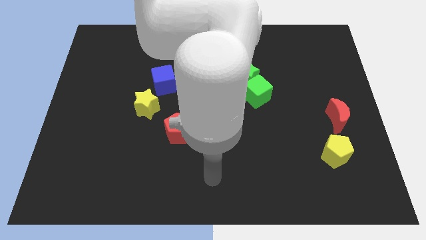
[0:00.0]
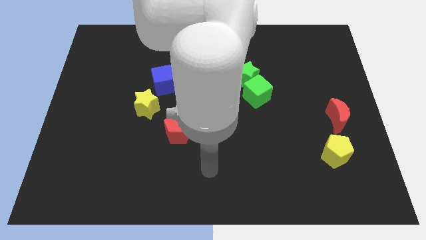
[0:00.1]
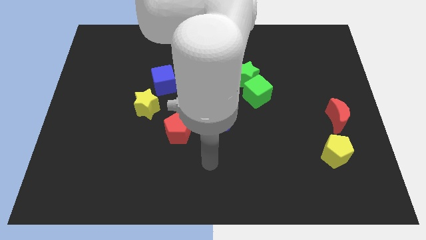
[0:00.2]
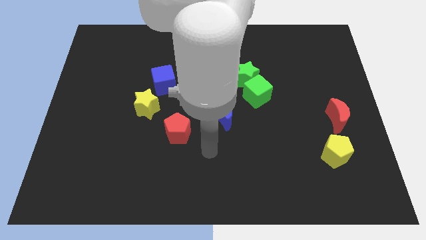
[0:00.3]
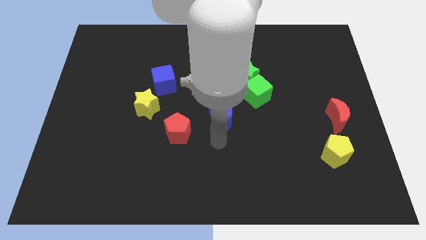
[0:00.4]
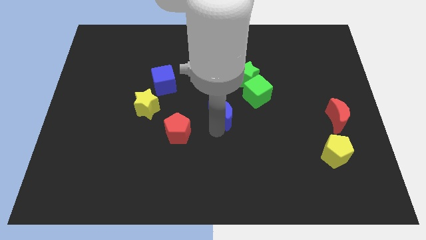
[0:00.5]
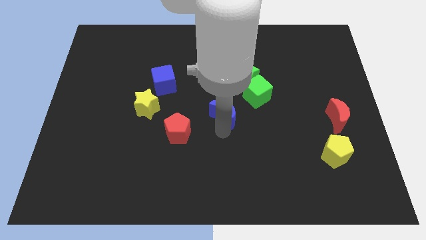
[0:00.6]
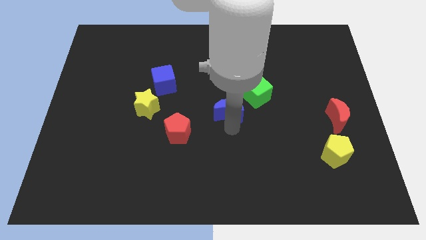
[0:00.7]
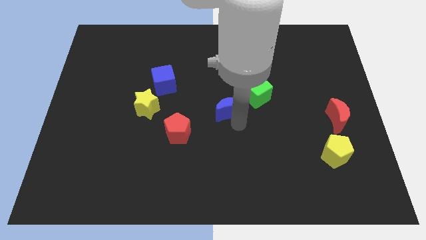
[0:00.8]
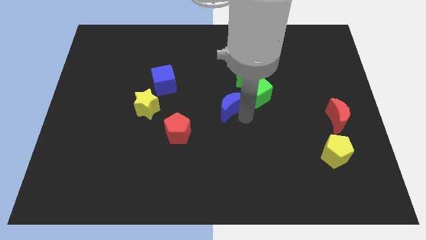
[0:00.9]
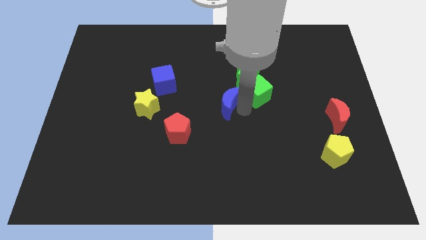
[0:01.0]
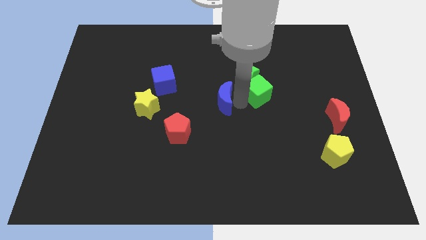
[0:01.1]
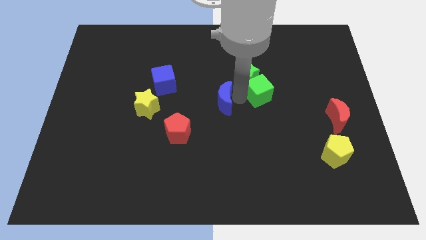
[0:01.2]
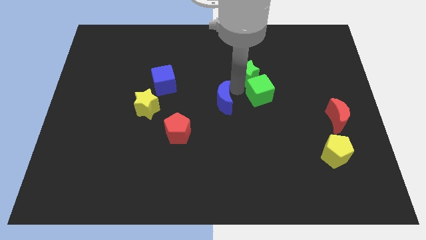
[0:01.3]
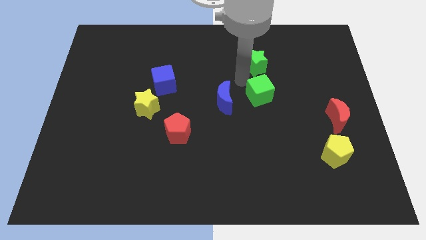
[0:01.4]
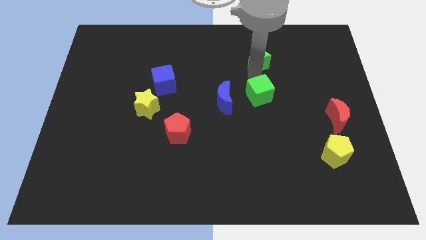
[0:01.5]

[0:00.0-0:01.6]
pull the green cube apart from the green star

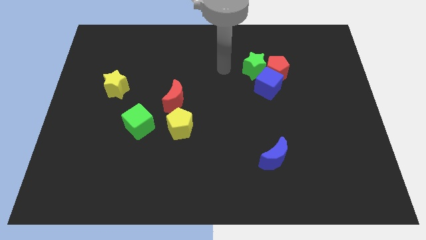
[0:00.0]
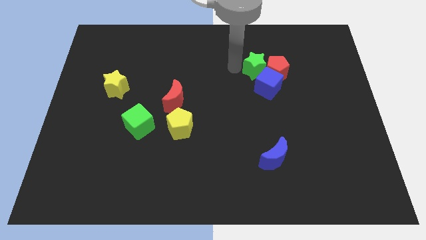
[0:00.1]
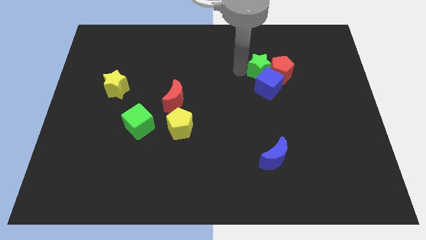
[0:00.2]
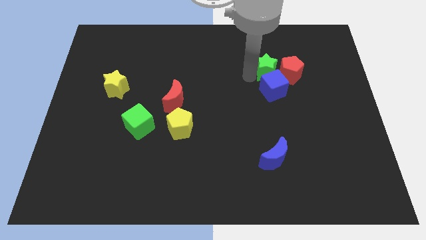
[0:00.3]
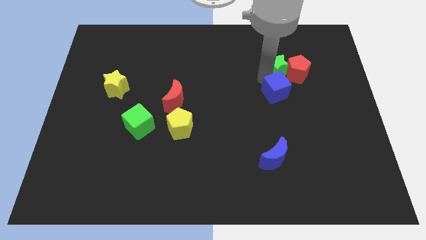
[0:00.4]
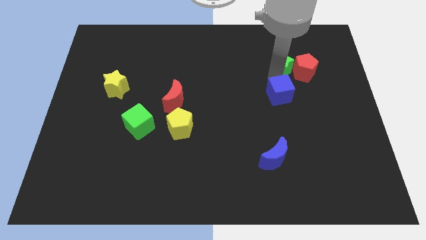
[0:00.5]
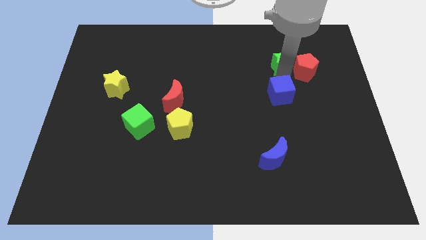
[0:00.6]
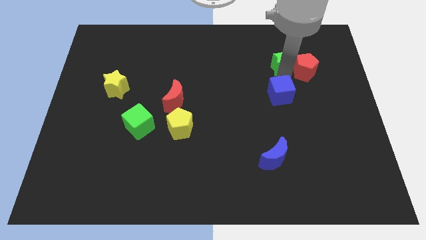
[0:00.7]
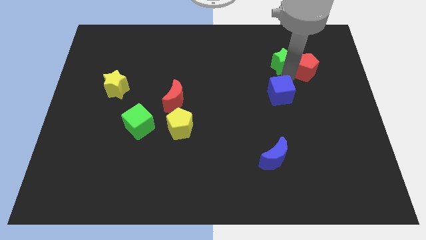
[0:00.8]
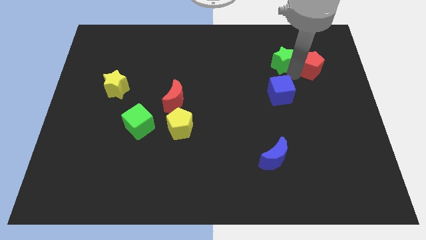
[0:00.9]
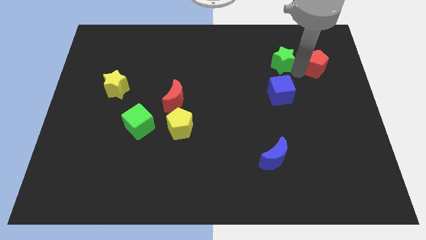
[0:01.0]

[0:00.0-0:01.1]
separate the red pentagon from the blue cube and green star

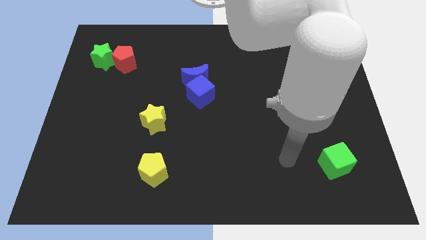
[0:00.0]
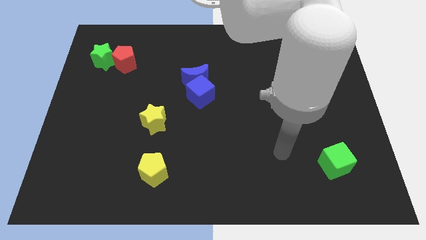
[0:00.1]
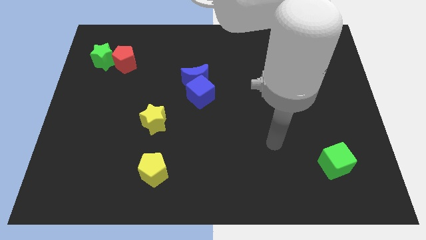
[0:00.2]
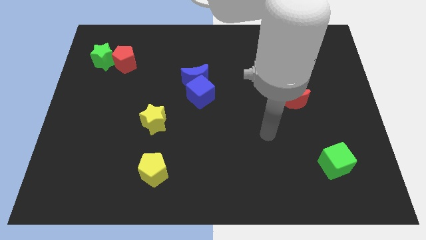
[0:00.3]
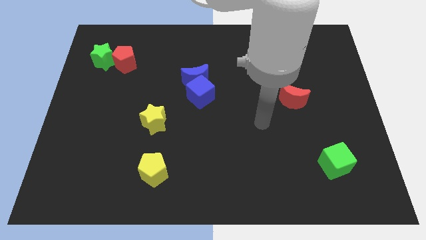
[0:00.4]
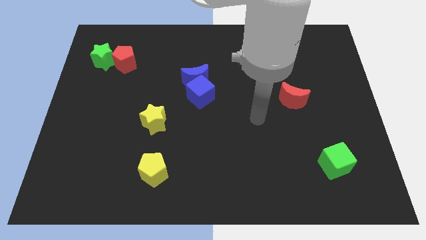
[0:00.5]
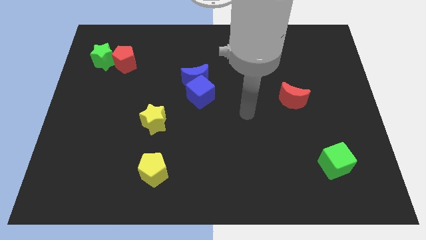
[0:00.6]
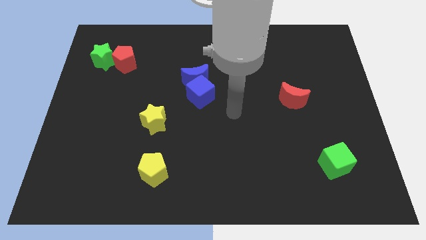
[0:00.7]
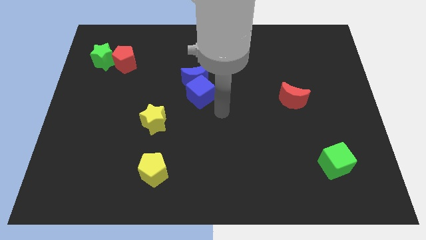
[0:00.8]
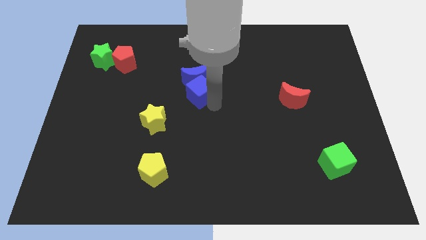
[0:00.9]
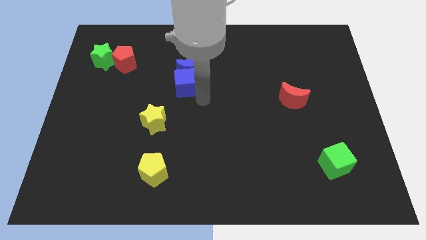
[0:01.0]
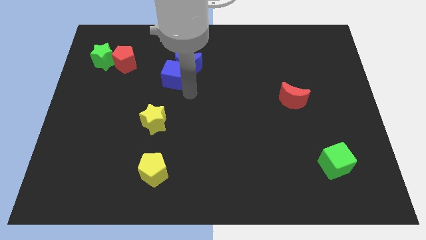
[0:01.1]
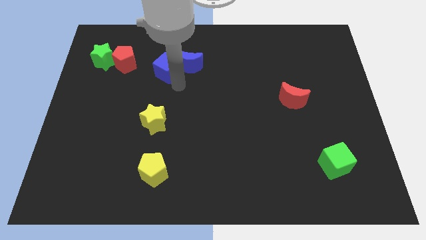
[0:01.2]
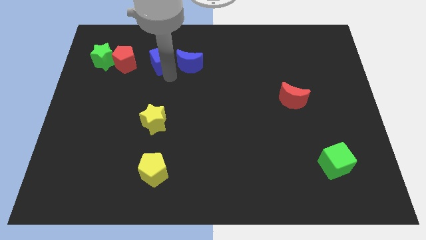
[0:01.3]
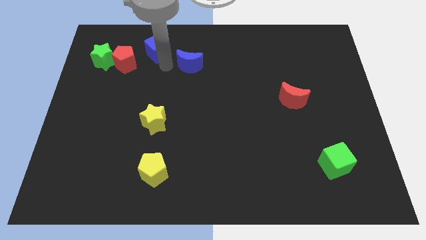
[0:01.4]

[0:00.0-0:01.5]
move the blue moon away from the blue cube

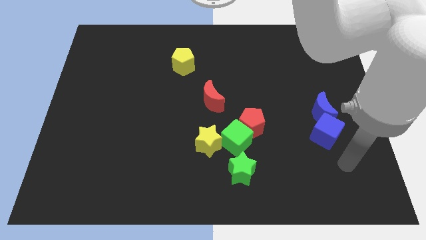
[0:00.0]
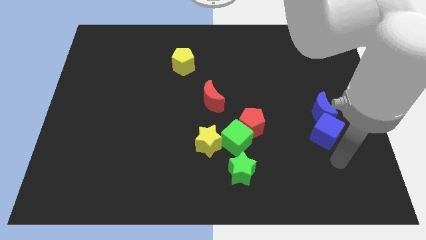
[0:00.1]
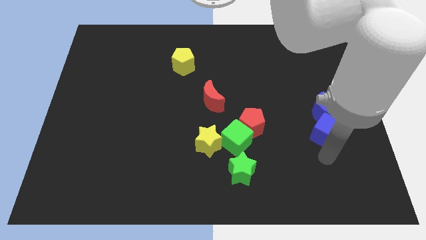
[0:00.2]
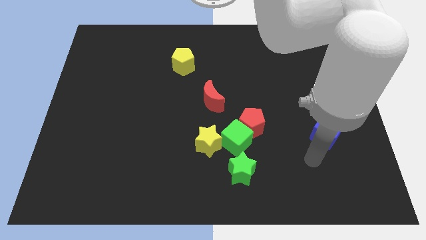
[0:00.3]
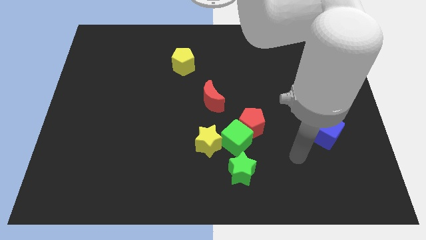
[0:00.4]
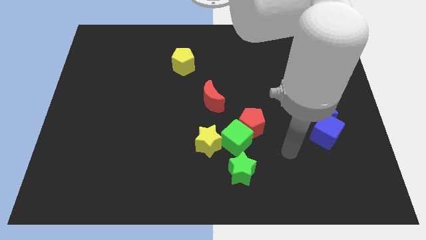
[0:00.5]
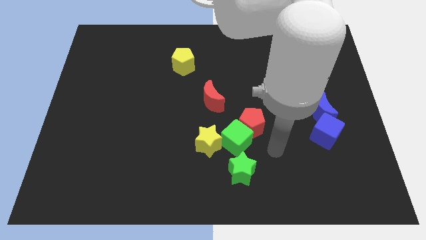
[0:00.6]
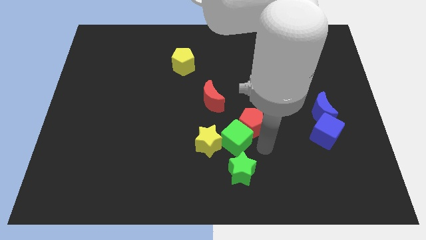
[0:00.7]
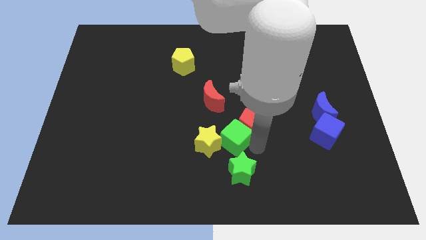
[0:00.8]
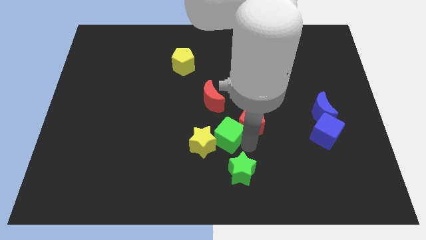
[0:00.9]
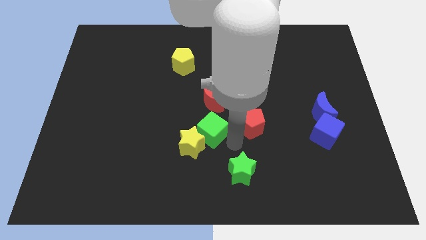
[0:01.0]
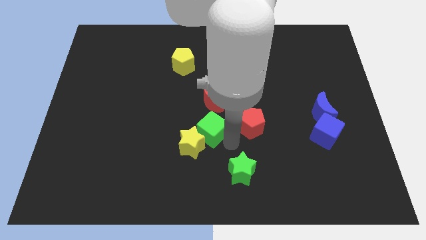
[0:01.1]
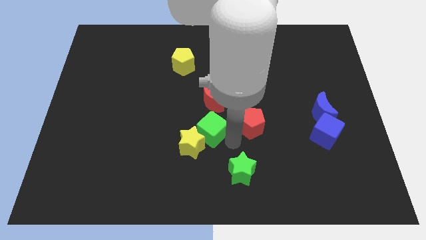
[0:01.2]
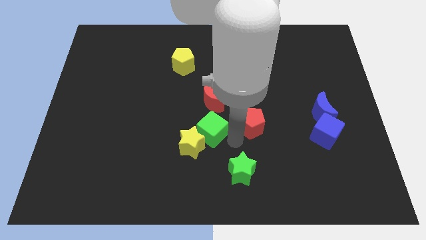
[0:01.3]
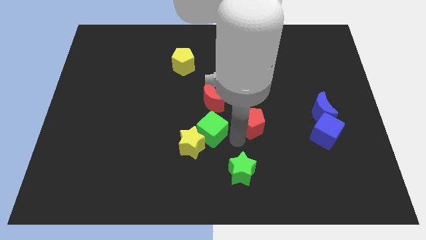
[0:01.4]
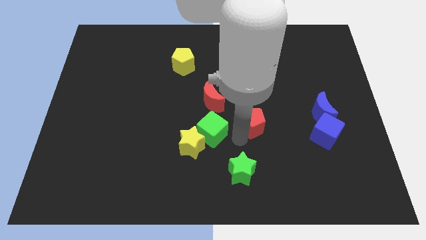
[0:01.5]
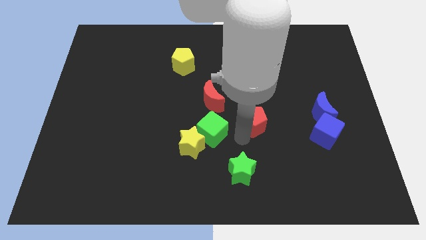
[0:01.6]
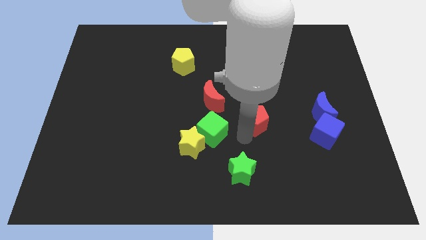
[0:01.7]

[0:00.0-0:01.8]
separate the red pentagon from the green cube

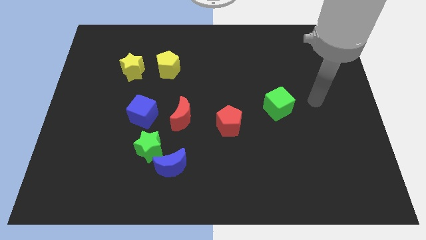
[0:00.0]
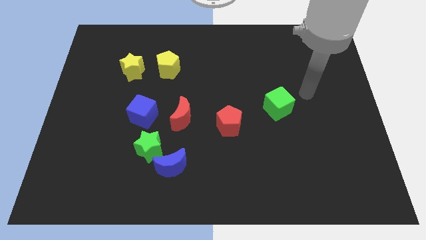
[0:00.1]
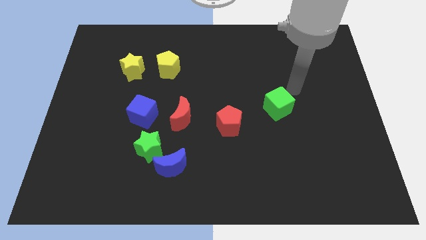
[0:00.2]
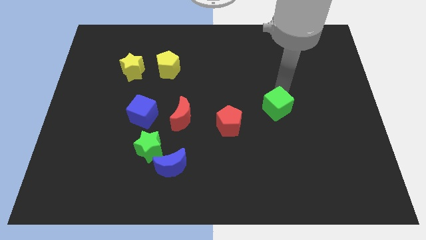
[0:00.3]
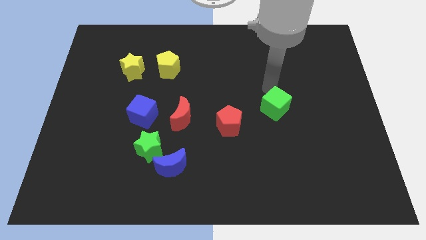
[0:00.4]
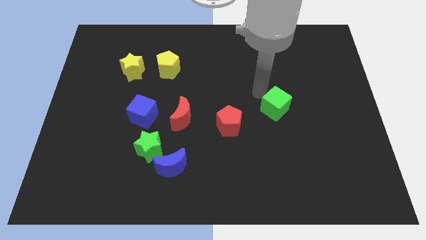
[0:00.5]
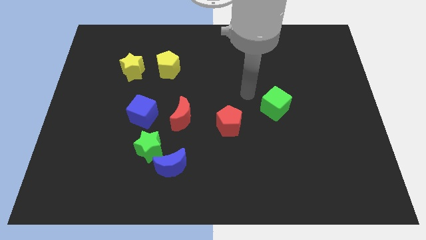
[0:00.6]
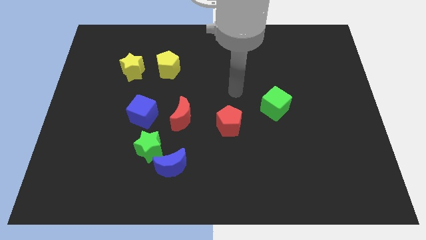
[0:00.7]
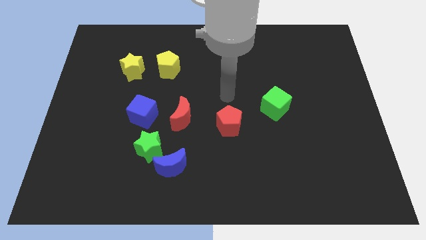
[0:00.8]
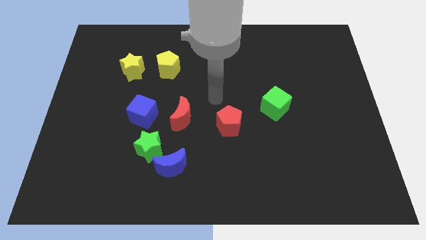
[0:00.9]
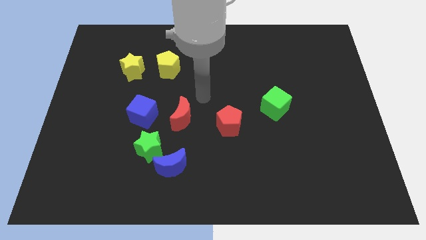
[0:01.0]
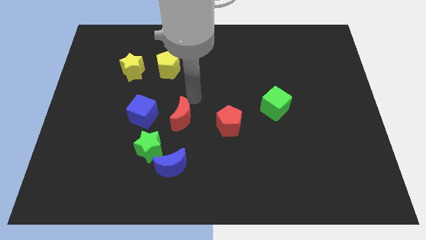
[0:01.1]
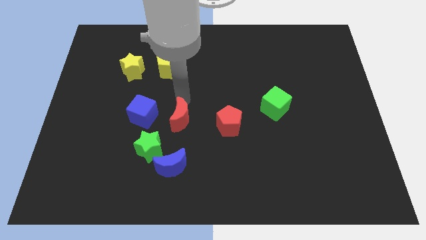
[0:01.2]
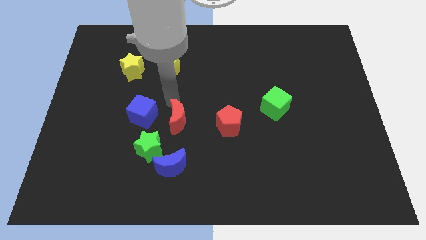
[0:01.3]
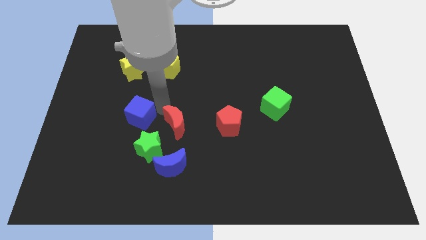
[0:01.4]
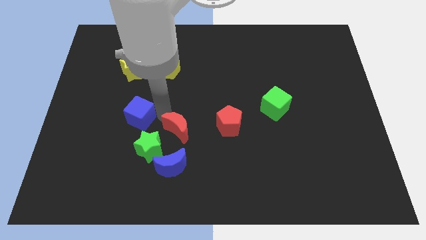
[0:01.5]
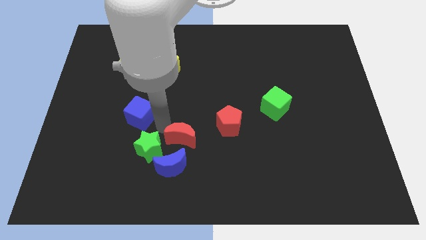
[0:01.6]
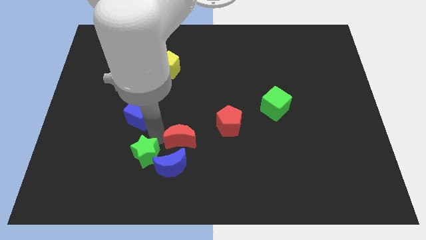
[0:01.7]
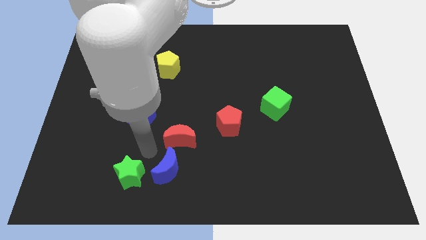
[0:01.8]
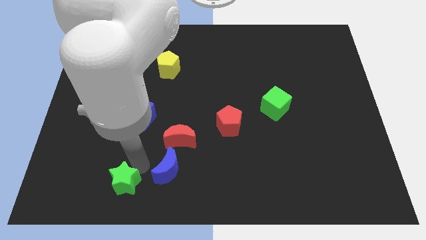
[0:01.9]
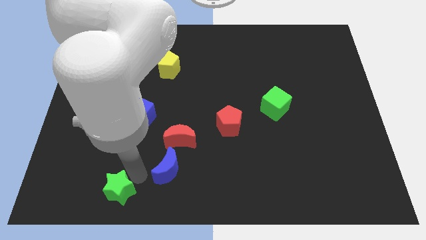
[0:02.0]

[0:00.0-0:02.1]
separate the blue moon from the green star

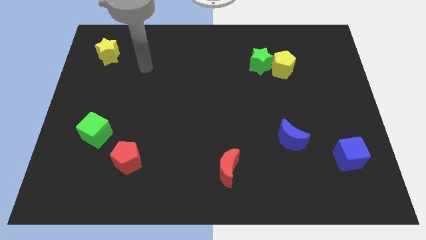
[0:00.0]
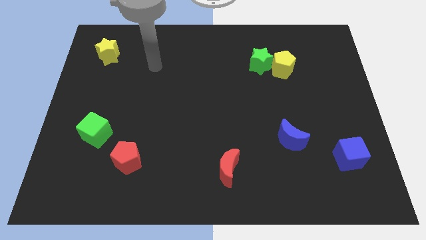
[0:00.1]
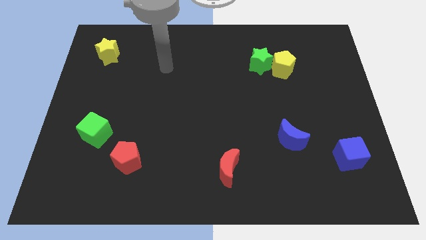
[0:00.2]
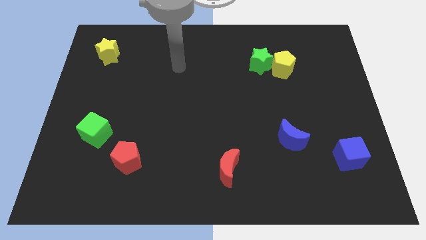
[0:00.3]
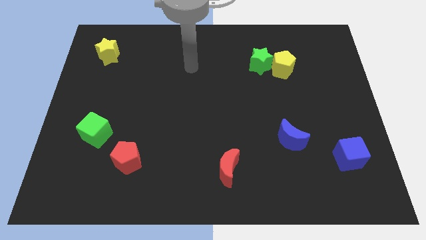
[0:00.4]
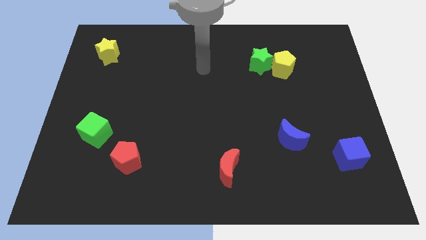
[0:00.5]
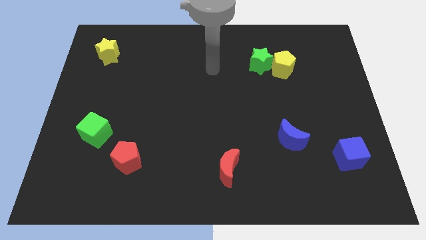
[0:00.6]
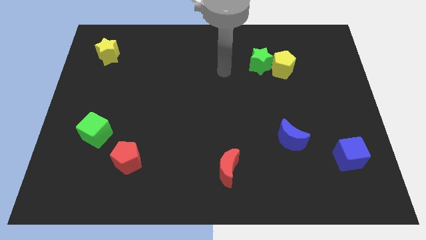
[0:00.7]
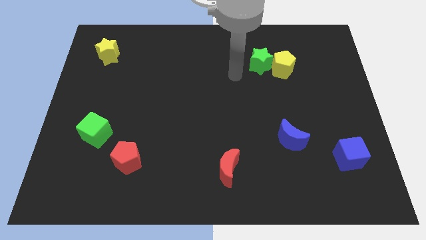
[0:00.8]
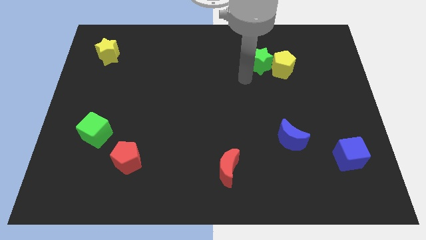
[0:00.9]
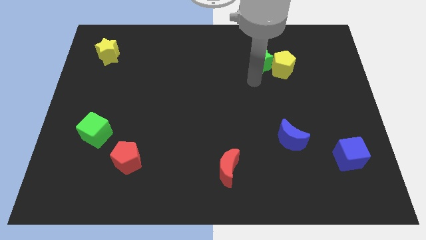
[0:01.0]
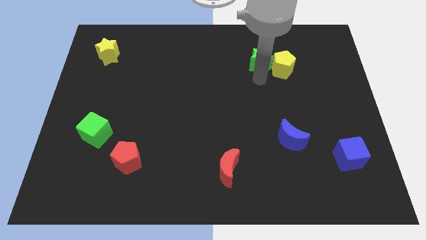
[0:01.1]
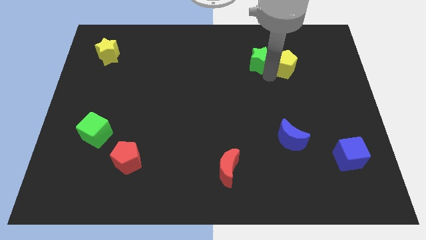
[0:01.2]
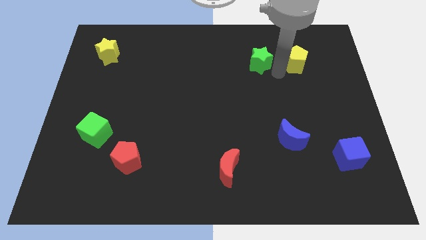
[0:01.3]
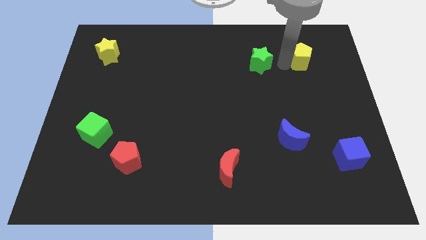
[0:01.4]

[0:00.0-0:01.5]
pull the green star apart from the yellow pentagon
